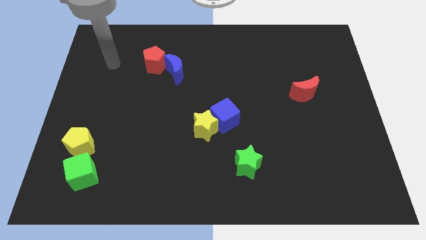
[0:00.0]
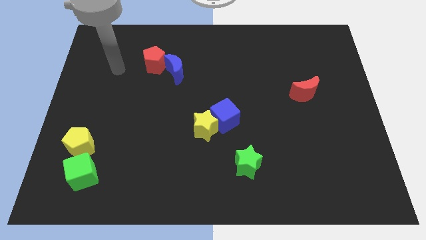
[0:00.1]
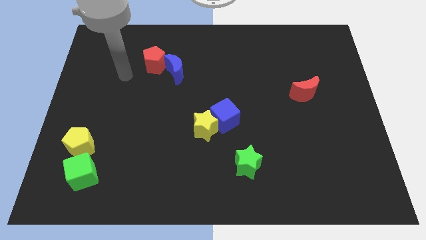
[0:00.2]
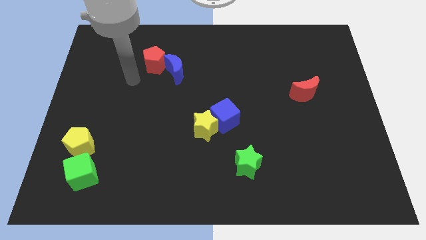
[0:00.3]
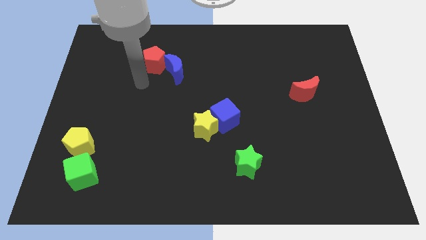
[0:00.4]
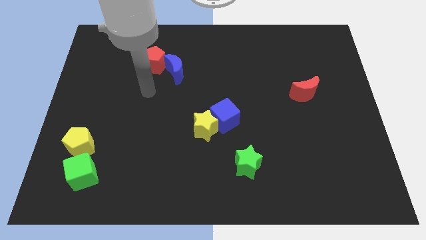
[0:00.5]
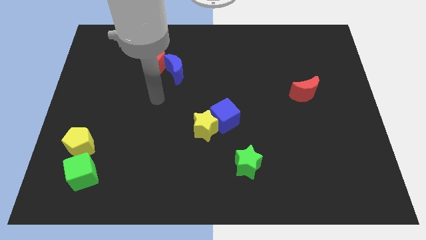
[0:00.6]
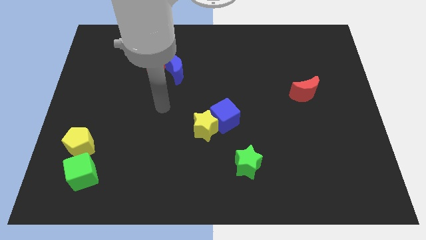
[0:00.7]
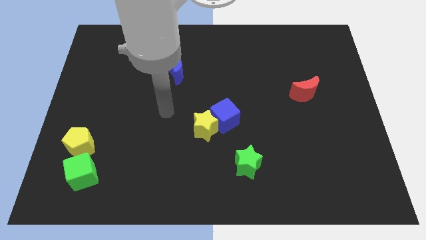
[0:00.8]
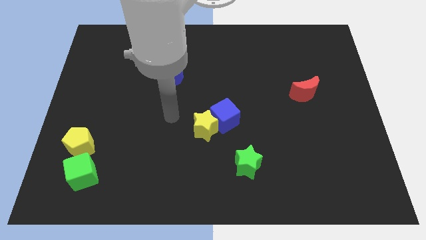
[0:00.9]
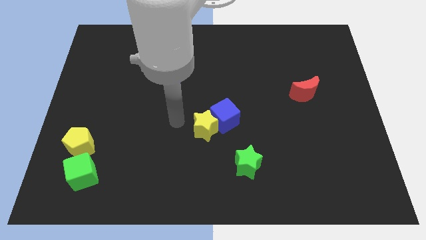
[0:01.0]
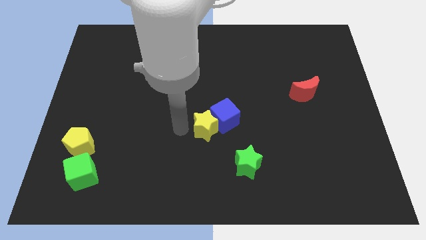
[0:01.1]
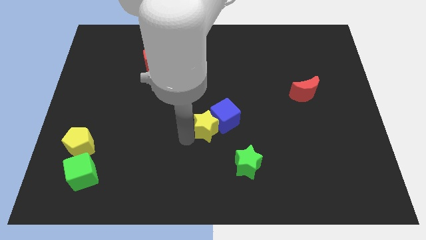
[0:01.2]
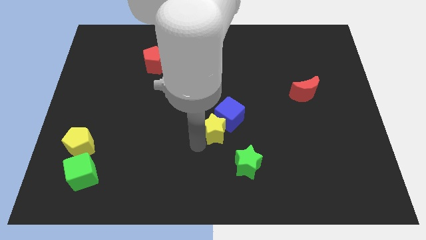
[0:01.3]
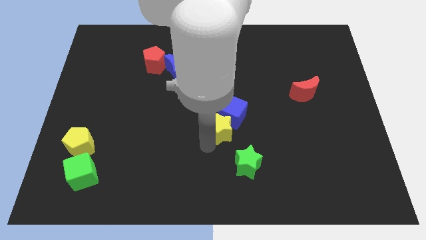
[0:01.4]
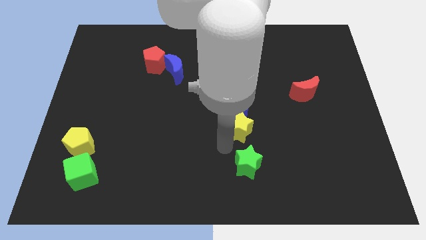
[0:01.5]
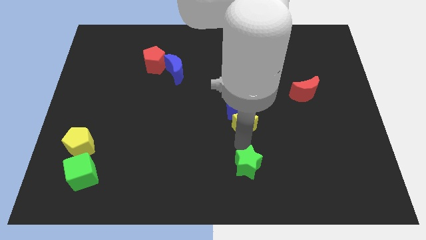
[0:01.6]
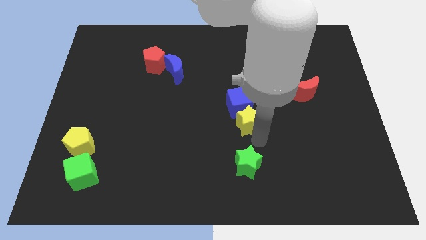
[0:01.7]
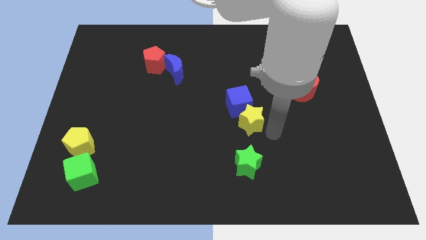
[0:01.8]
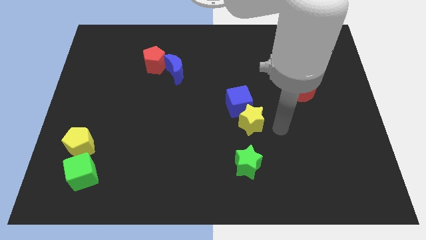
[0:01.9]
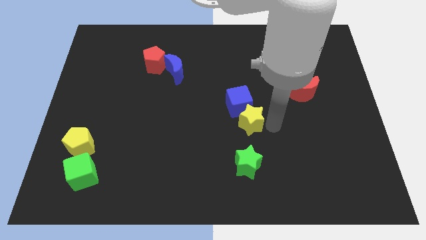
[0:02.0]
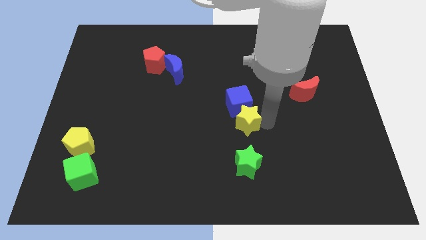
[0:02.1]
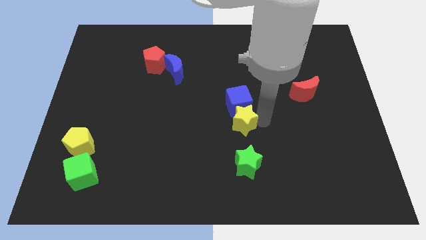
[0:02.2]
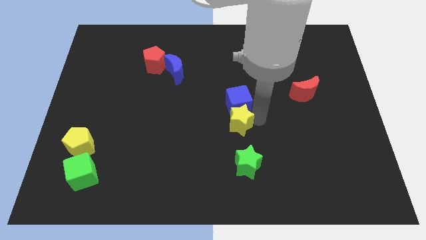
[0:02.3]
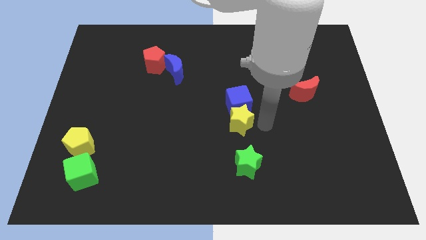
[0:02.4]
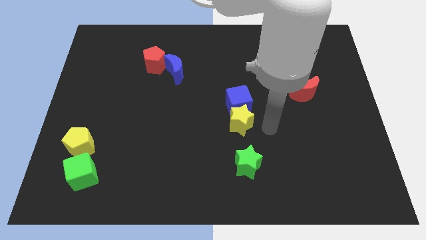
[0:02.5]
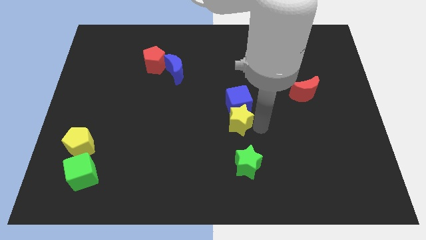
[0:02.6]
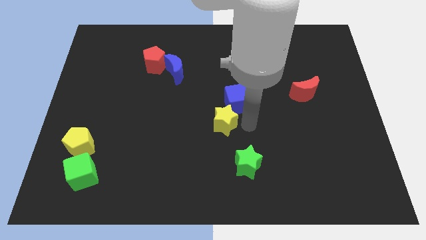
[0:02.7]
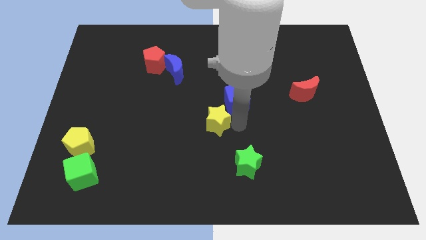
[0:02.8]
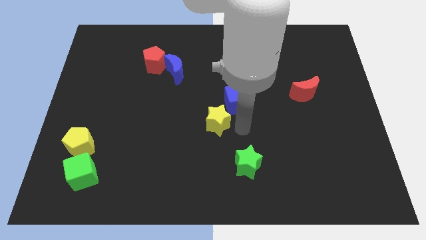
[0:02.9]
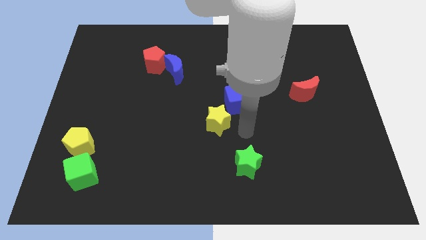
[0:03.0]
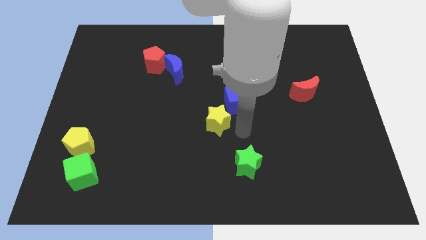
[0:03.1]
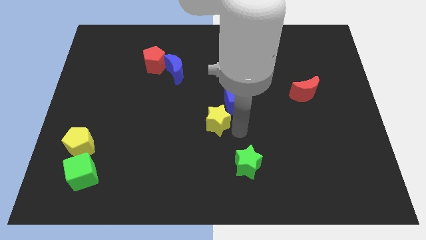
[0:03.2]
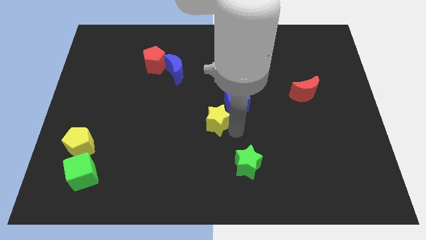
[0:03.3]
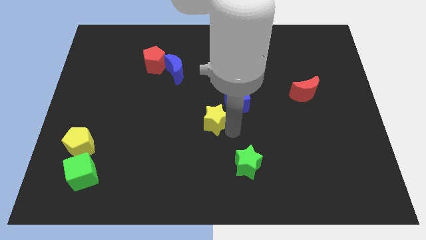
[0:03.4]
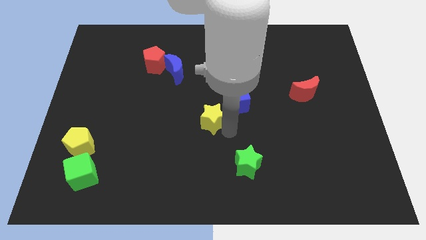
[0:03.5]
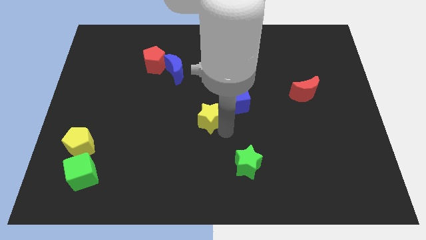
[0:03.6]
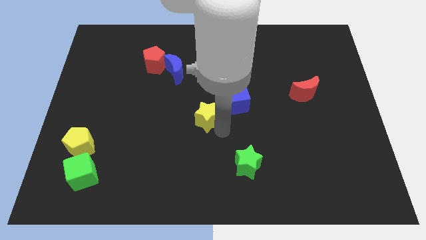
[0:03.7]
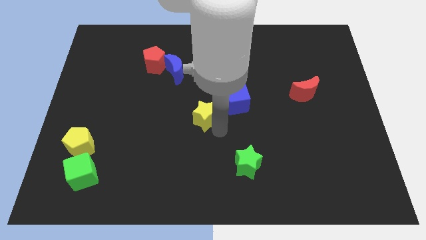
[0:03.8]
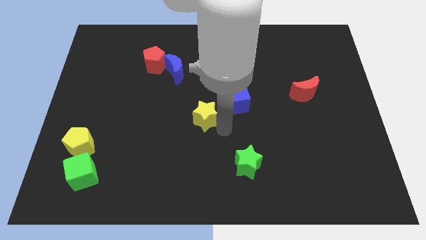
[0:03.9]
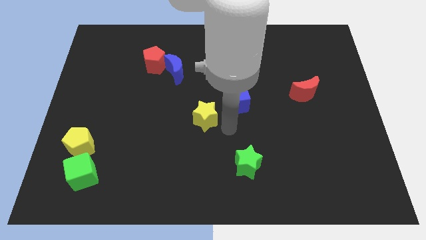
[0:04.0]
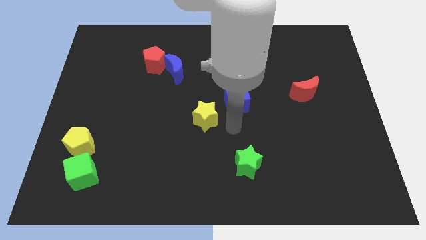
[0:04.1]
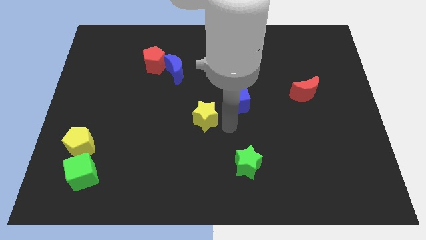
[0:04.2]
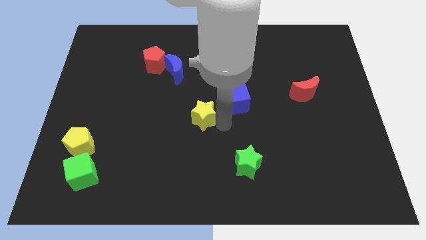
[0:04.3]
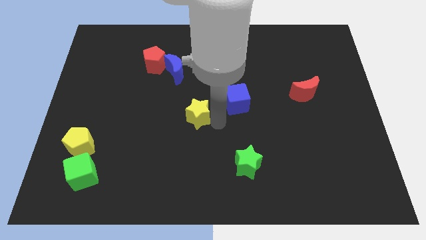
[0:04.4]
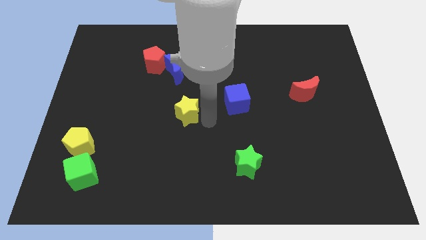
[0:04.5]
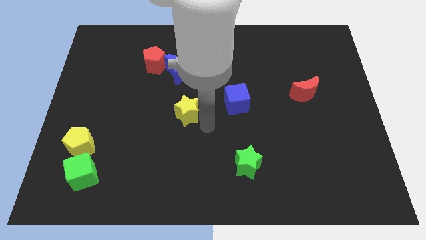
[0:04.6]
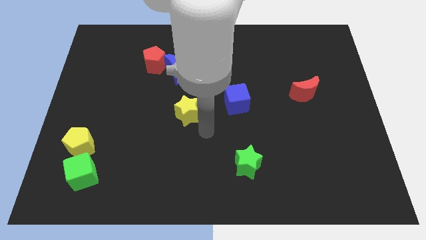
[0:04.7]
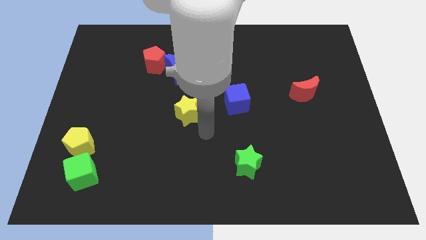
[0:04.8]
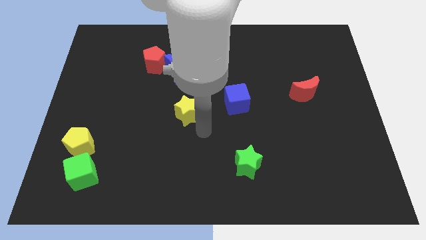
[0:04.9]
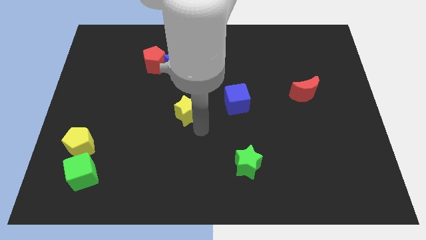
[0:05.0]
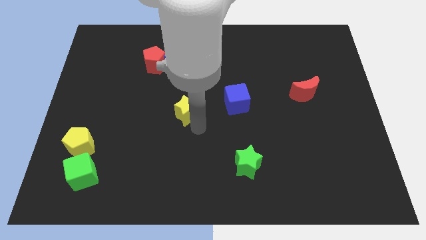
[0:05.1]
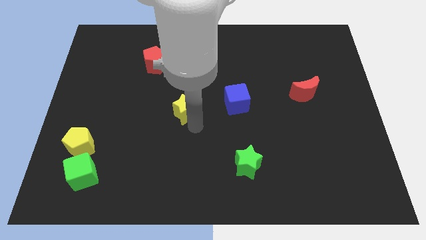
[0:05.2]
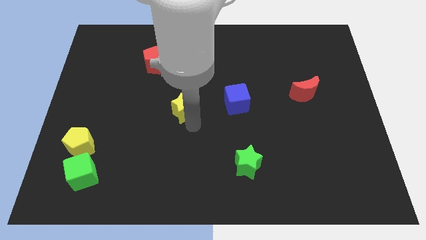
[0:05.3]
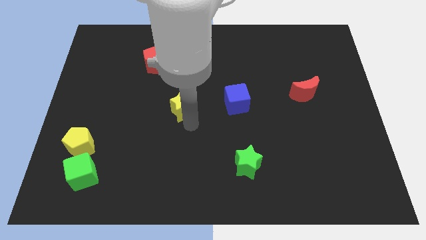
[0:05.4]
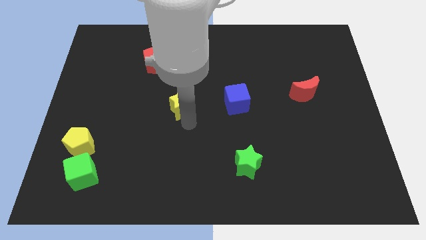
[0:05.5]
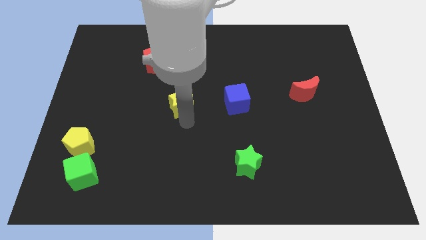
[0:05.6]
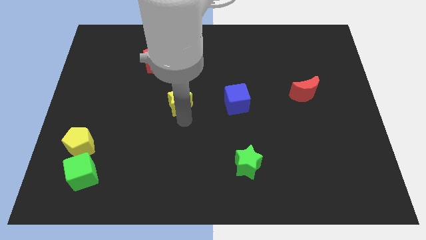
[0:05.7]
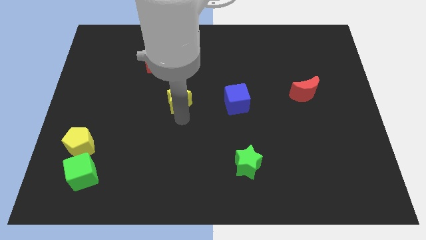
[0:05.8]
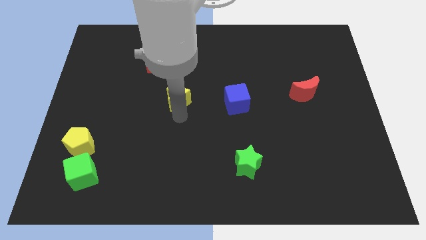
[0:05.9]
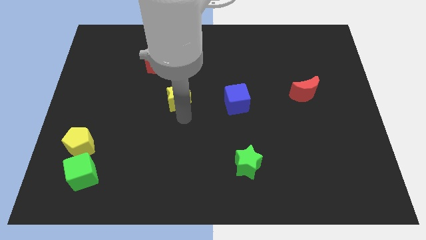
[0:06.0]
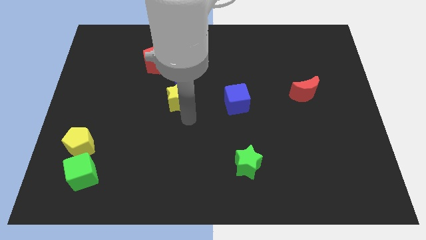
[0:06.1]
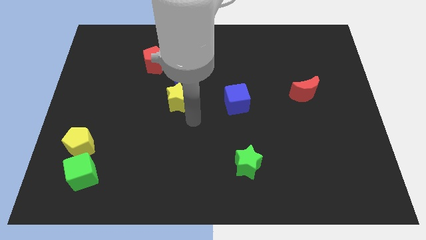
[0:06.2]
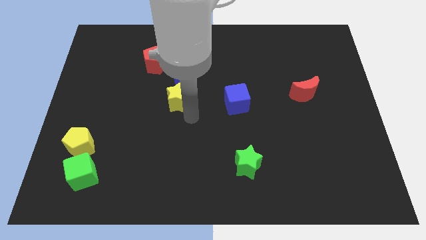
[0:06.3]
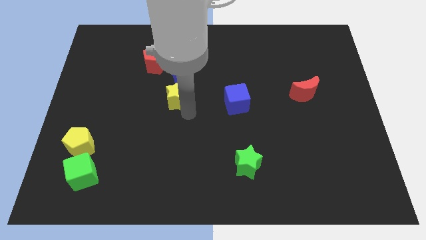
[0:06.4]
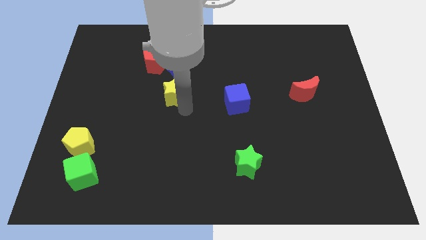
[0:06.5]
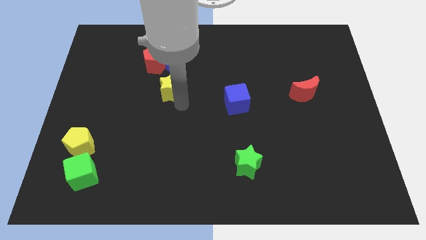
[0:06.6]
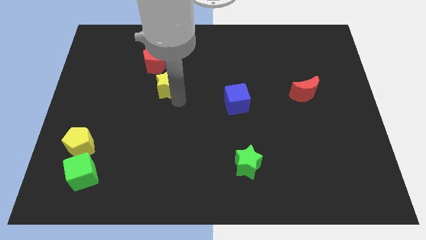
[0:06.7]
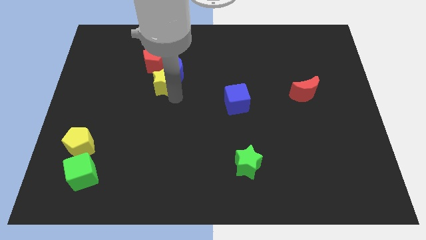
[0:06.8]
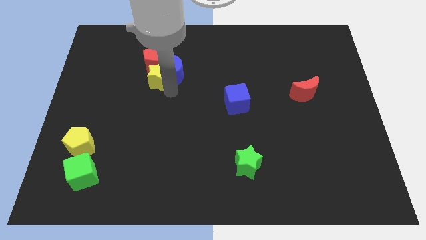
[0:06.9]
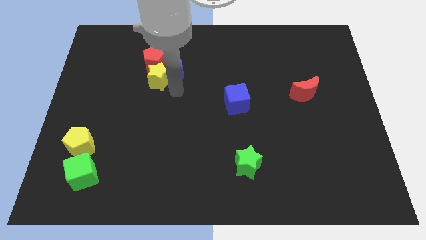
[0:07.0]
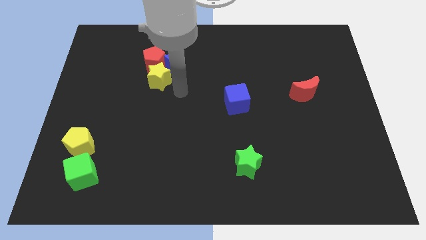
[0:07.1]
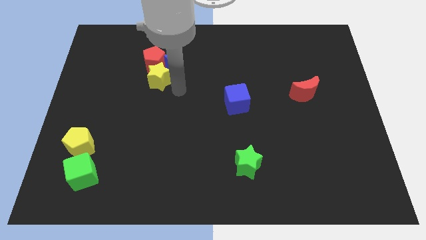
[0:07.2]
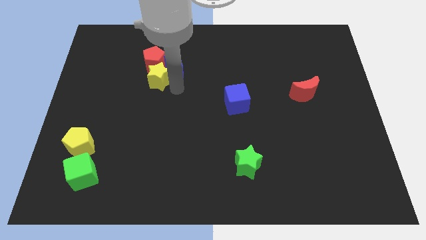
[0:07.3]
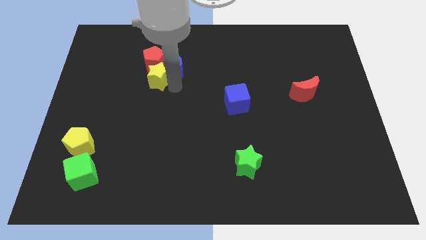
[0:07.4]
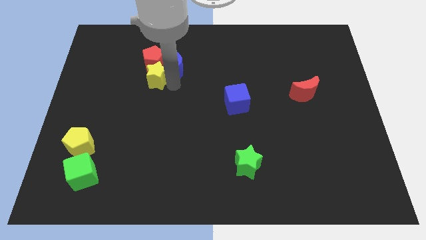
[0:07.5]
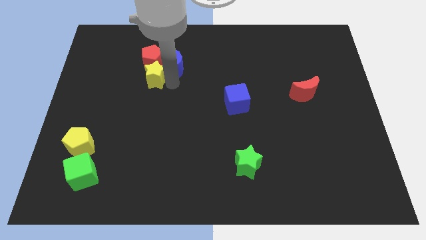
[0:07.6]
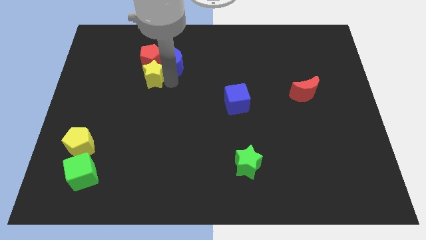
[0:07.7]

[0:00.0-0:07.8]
move the yellow star diagonally upwards and to the left
